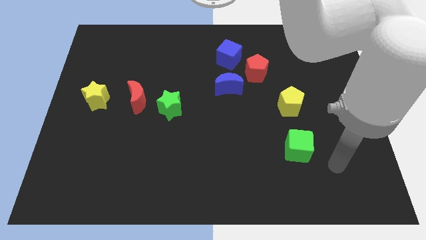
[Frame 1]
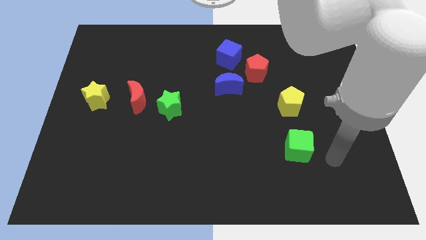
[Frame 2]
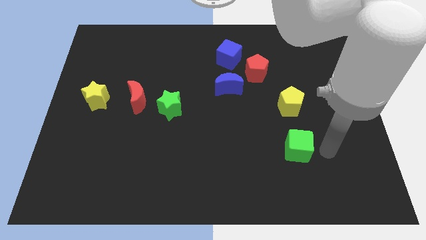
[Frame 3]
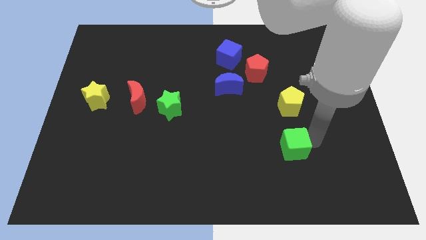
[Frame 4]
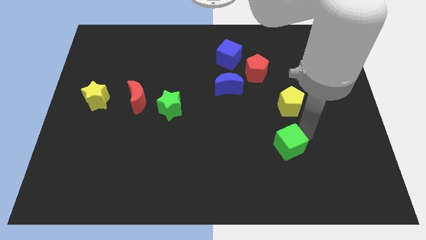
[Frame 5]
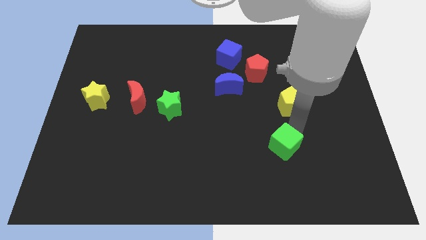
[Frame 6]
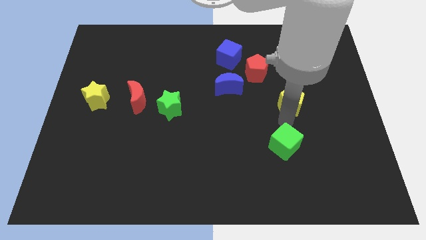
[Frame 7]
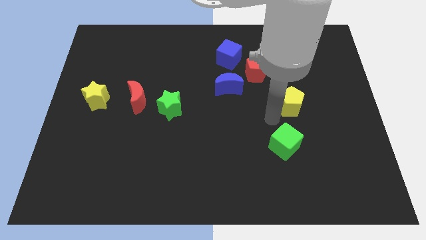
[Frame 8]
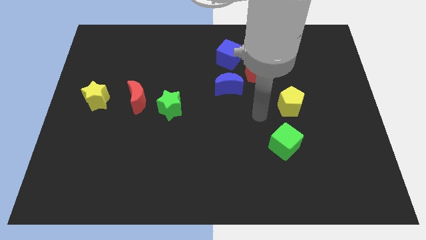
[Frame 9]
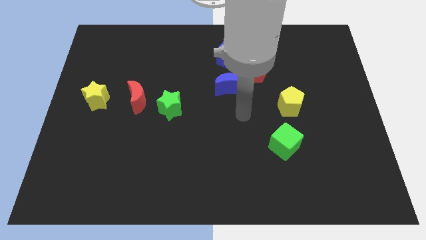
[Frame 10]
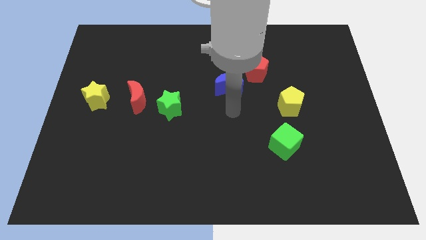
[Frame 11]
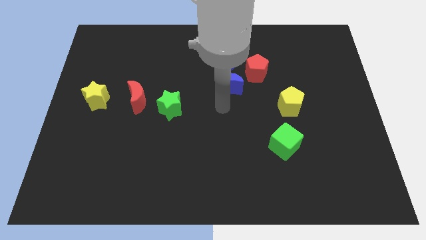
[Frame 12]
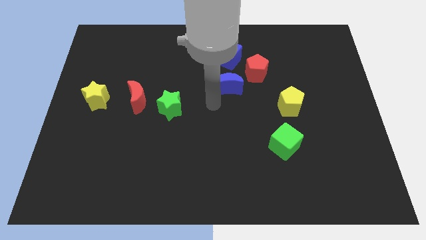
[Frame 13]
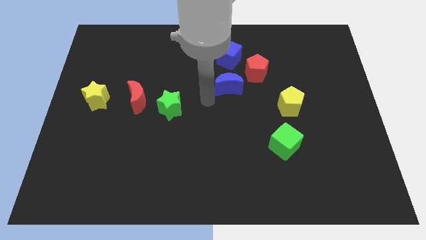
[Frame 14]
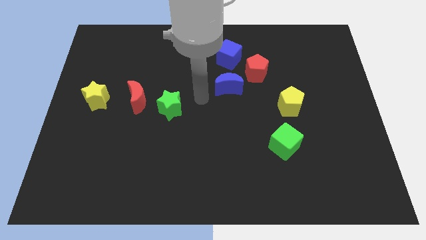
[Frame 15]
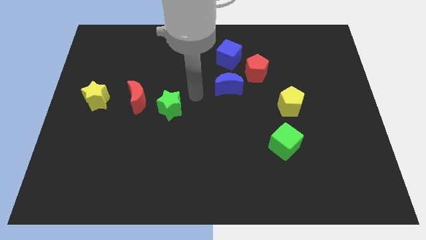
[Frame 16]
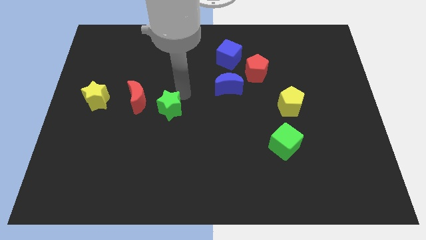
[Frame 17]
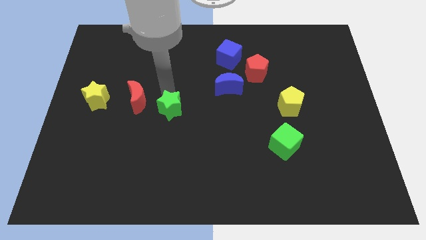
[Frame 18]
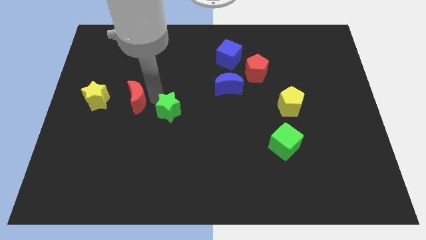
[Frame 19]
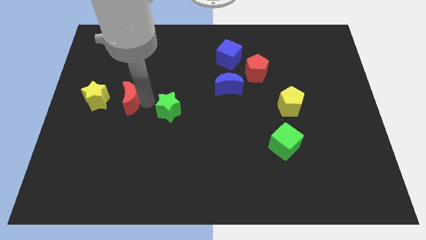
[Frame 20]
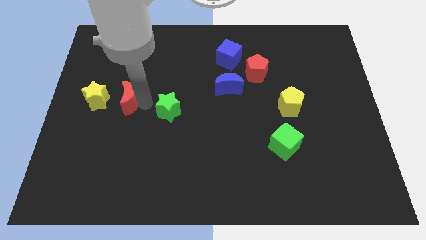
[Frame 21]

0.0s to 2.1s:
move the green star away from the red moon

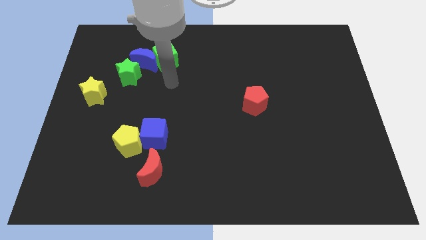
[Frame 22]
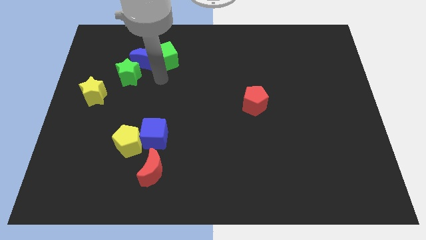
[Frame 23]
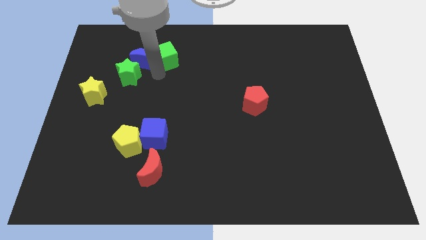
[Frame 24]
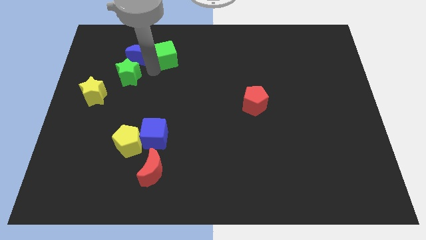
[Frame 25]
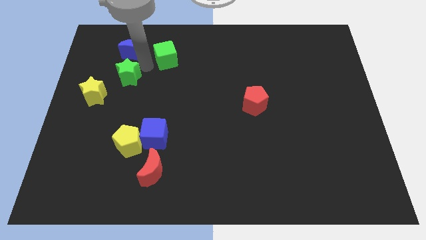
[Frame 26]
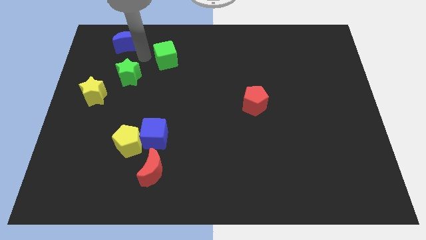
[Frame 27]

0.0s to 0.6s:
move the green cube away from the blue moon

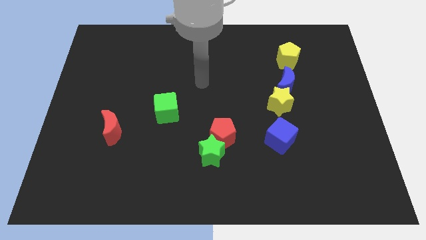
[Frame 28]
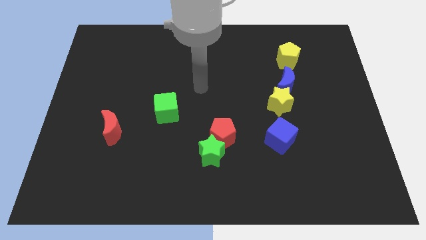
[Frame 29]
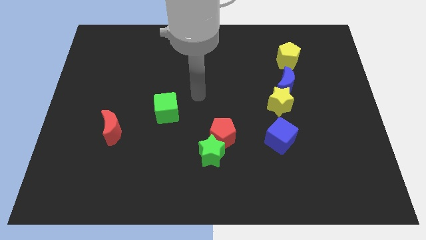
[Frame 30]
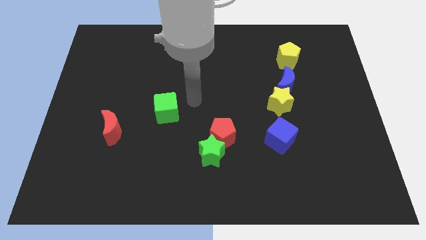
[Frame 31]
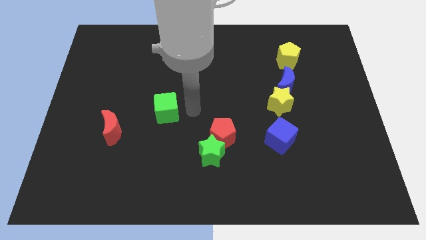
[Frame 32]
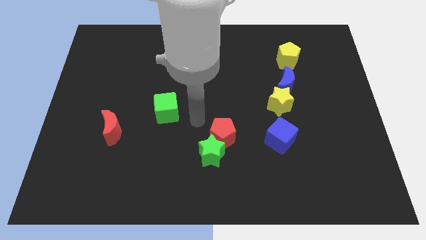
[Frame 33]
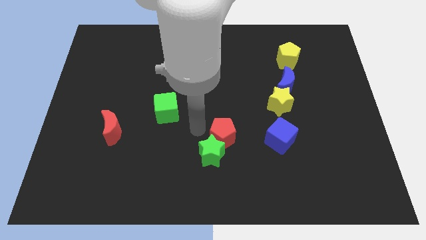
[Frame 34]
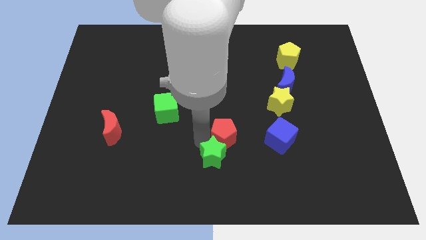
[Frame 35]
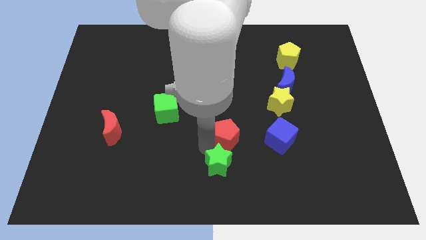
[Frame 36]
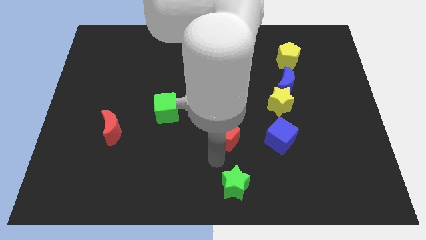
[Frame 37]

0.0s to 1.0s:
move the red pentagon away from the green star

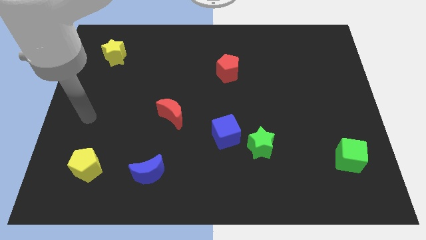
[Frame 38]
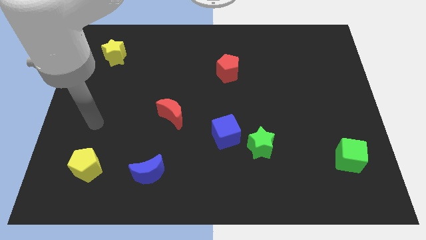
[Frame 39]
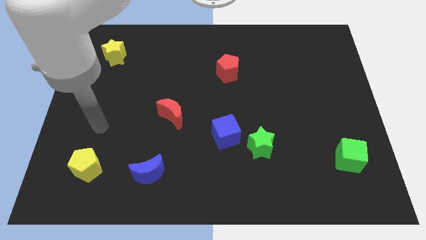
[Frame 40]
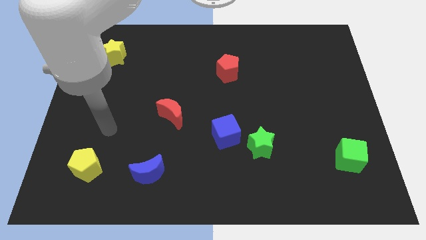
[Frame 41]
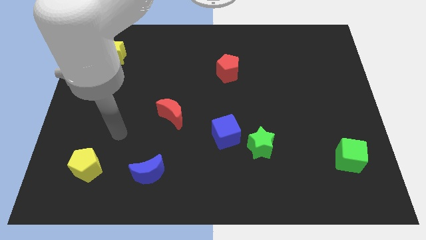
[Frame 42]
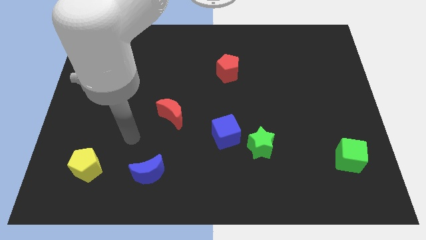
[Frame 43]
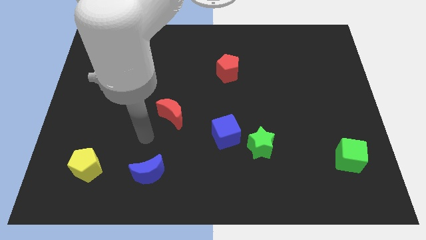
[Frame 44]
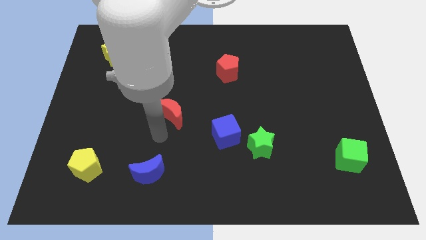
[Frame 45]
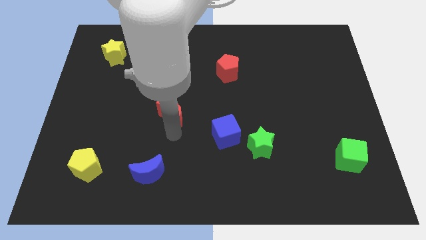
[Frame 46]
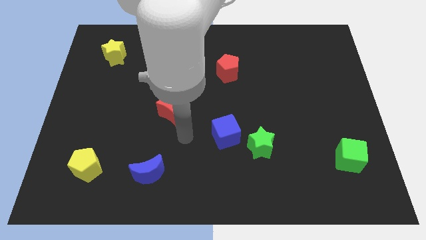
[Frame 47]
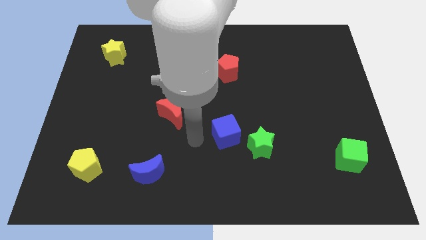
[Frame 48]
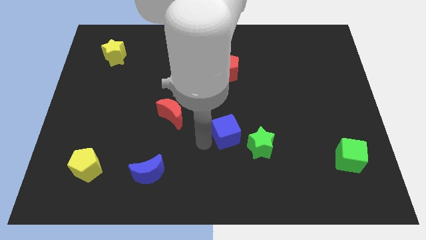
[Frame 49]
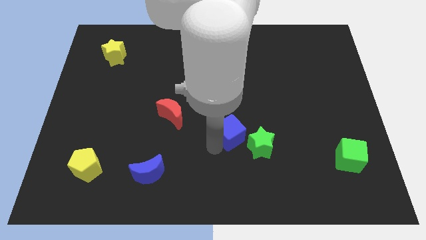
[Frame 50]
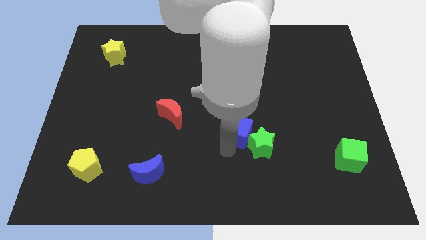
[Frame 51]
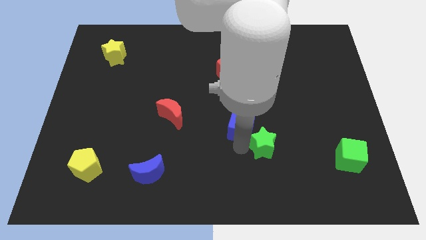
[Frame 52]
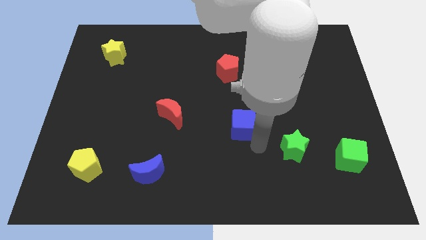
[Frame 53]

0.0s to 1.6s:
move the blue cube away from the green star

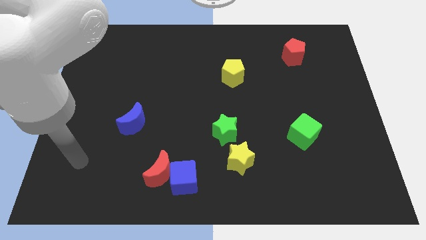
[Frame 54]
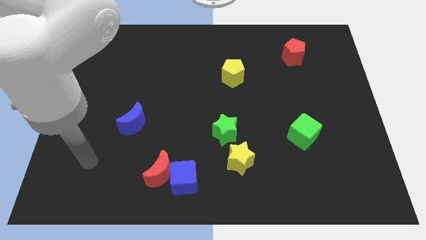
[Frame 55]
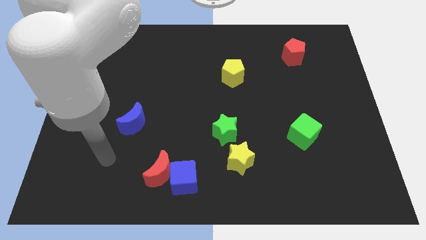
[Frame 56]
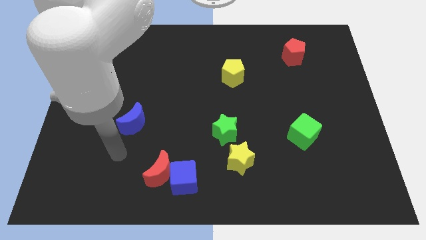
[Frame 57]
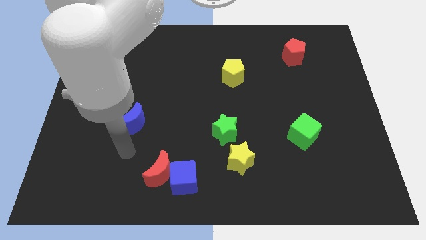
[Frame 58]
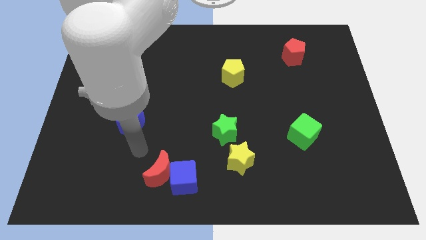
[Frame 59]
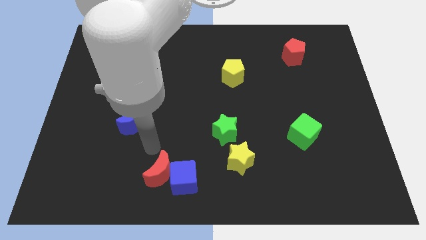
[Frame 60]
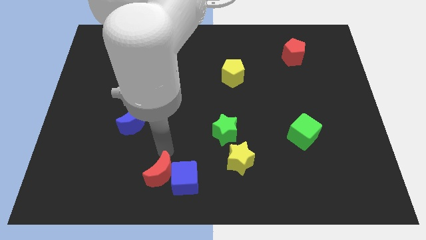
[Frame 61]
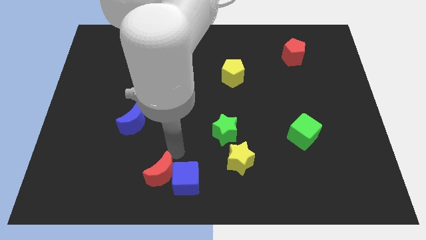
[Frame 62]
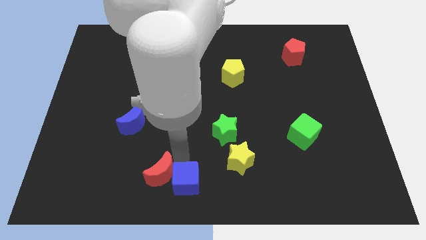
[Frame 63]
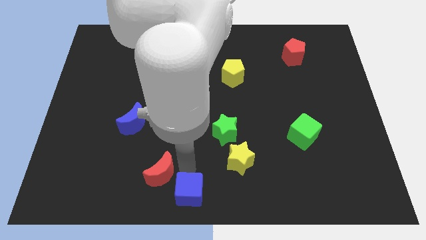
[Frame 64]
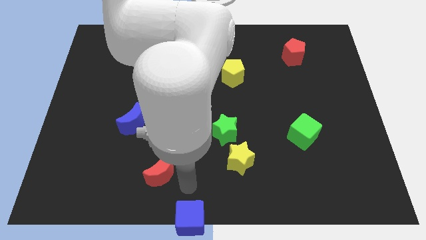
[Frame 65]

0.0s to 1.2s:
pull the red moon apart from the blue cube

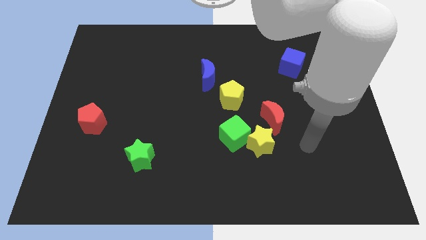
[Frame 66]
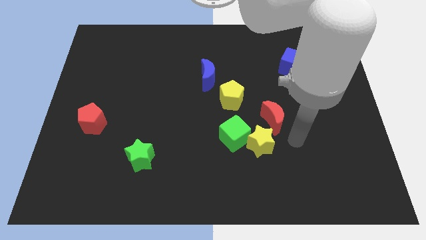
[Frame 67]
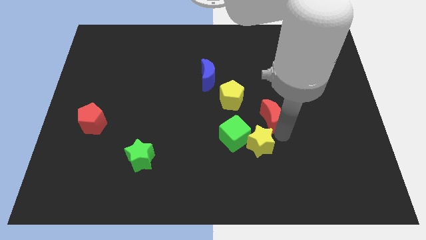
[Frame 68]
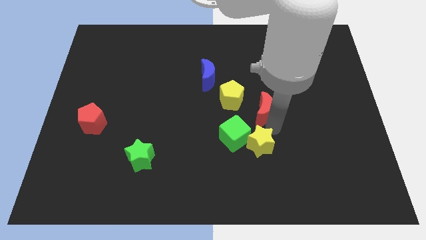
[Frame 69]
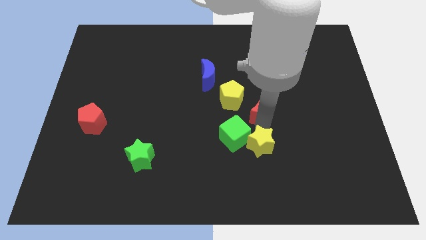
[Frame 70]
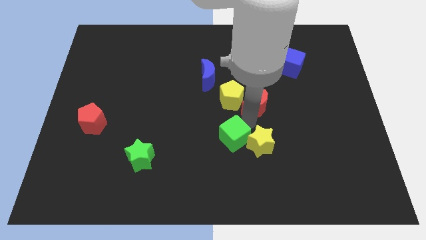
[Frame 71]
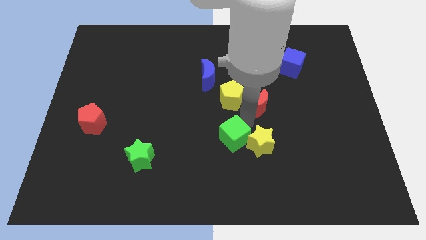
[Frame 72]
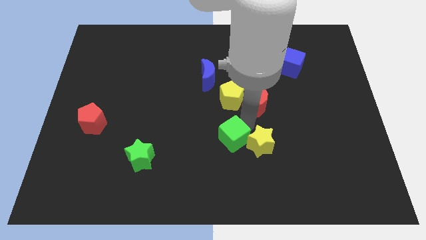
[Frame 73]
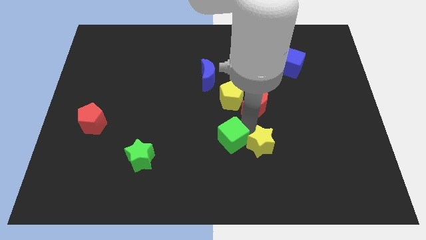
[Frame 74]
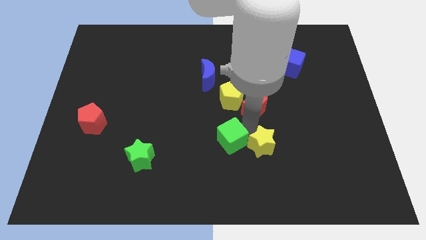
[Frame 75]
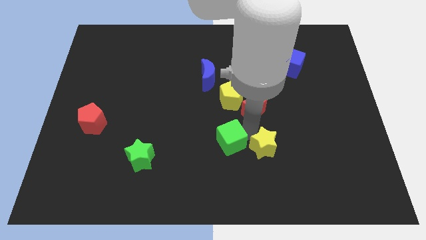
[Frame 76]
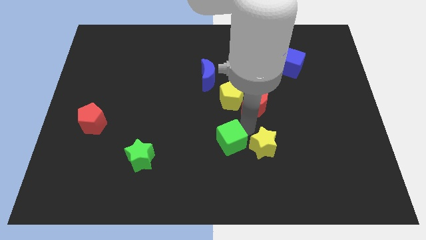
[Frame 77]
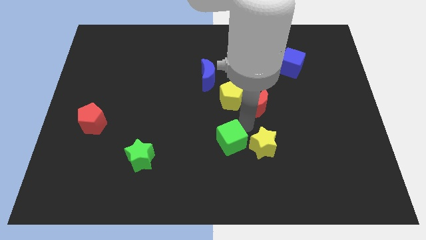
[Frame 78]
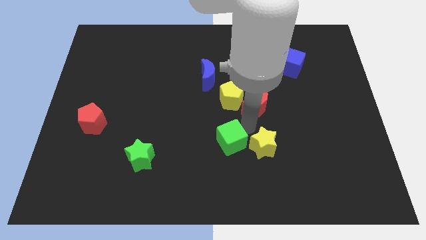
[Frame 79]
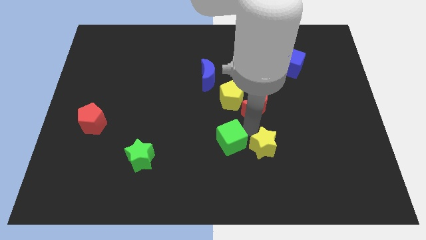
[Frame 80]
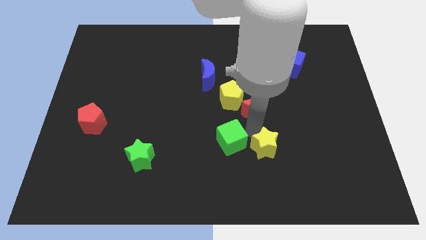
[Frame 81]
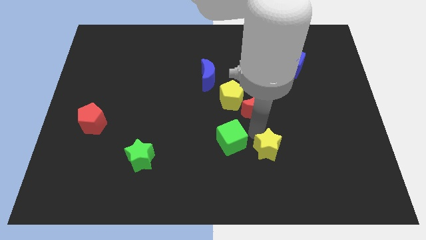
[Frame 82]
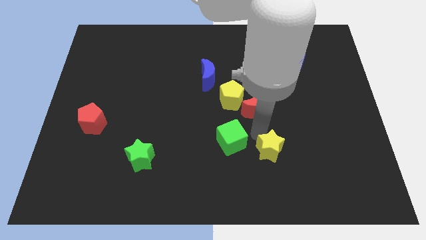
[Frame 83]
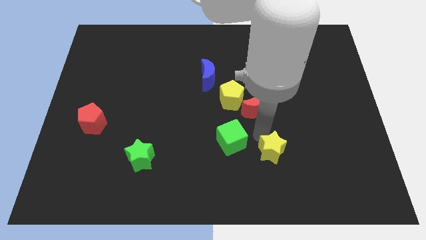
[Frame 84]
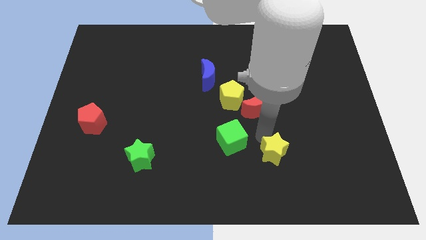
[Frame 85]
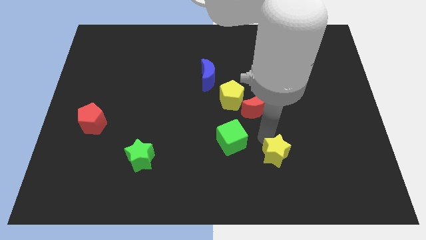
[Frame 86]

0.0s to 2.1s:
pull the yellow star apart from the green cube and red moon

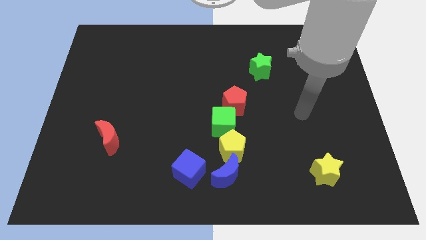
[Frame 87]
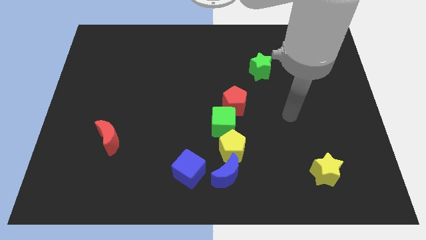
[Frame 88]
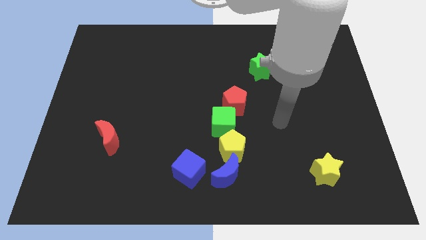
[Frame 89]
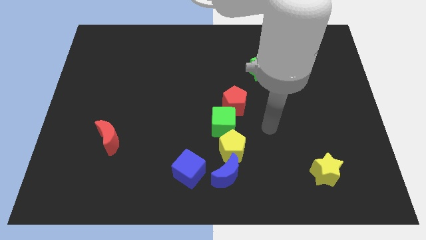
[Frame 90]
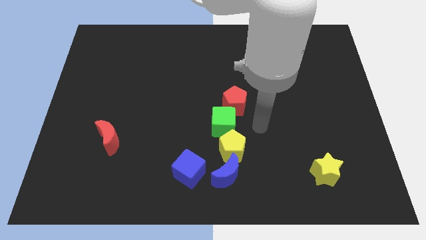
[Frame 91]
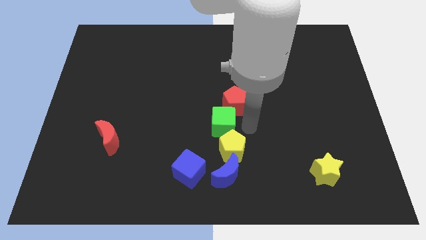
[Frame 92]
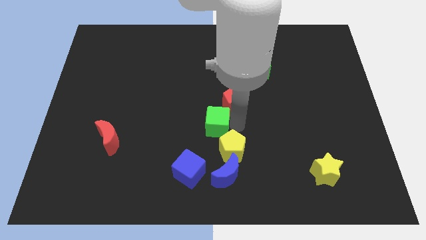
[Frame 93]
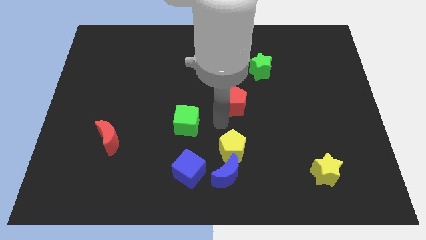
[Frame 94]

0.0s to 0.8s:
separate the red pentagon from the green cube
